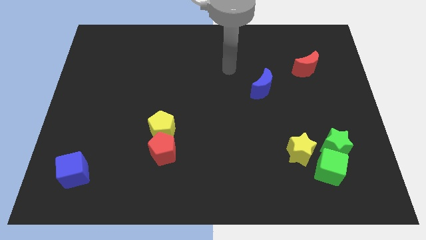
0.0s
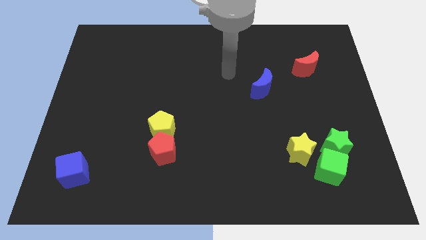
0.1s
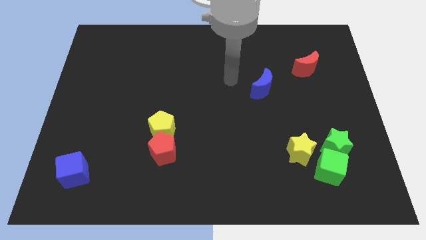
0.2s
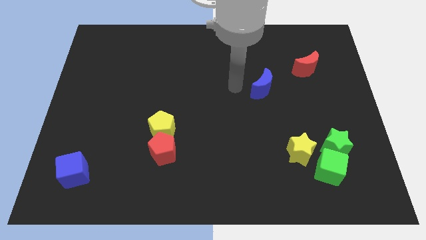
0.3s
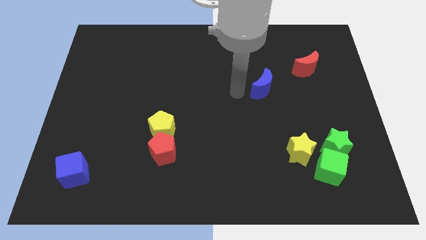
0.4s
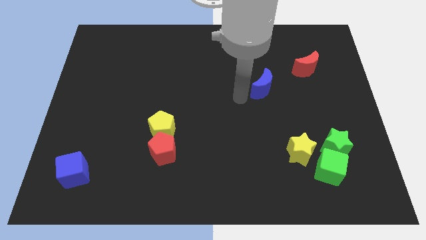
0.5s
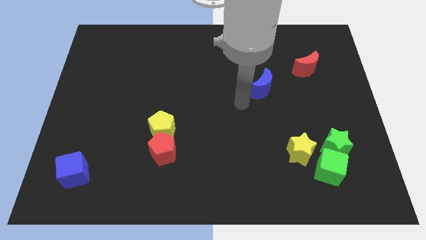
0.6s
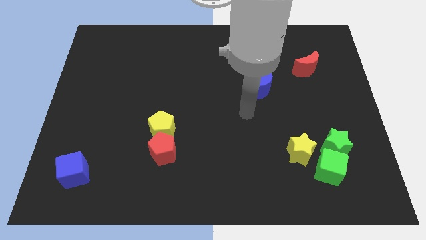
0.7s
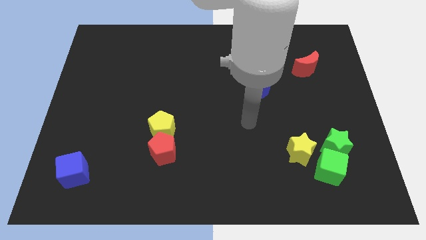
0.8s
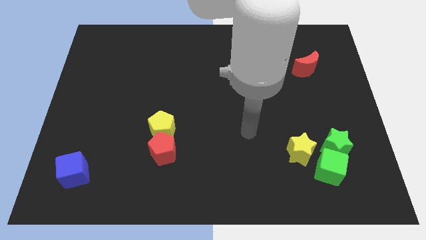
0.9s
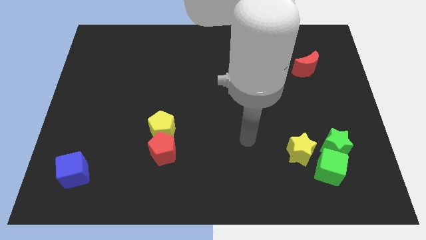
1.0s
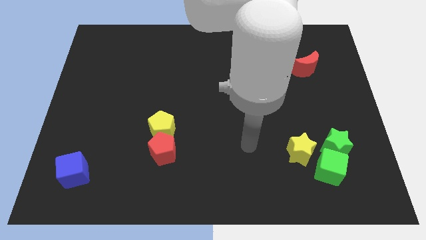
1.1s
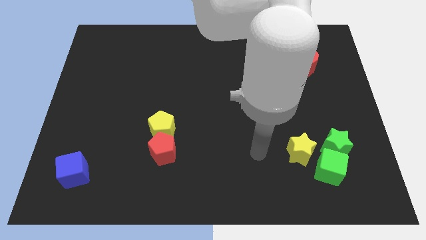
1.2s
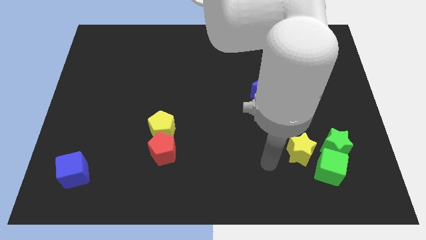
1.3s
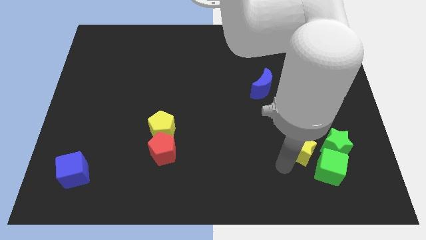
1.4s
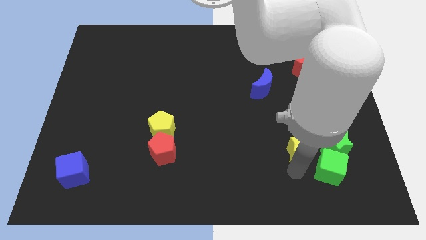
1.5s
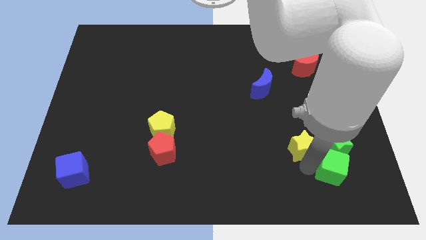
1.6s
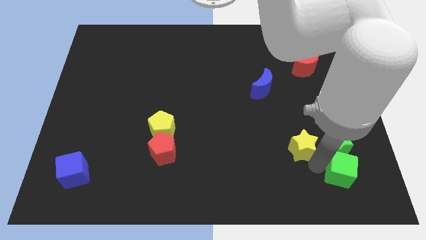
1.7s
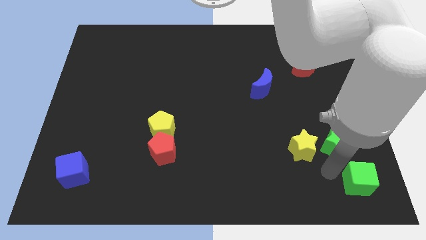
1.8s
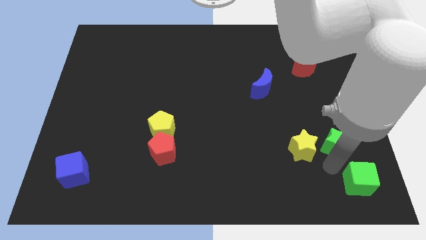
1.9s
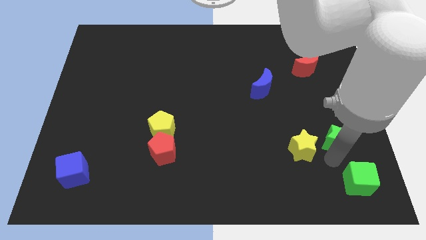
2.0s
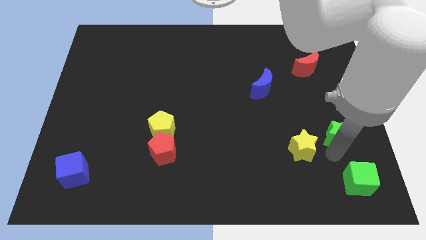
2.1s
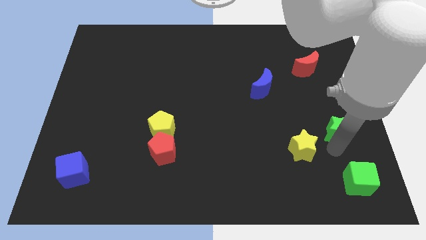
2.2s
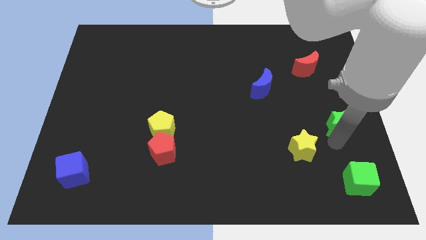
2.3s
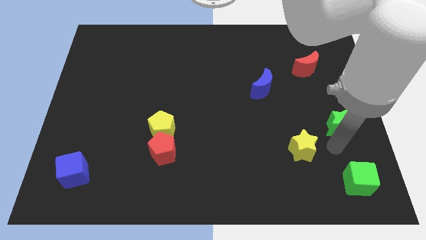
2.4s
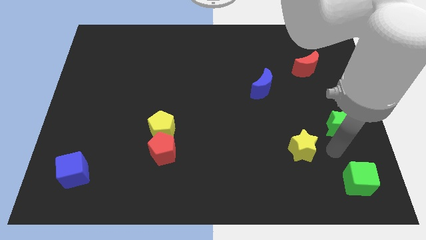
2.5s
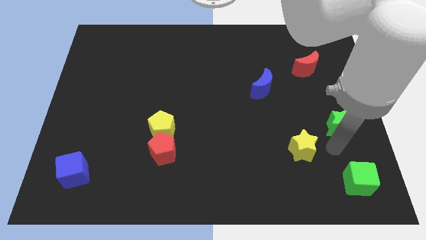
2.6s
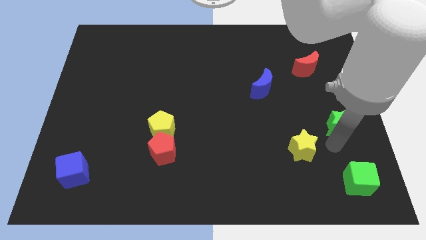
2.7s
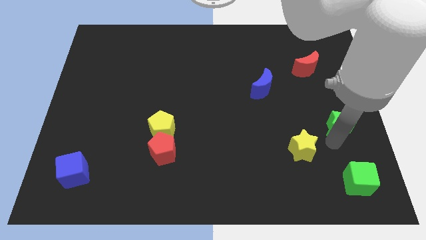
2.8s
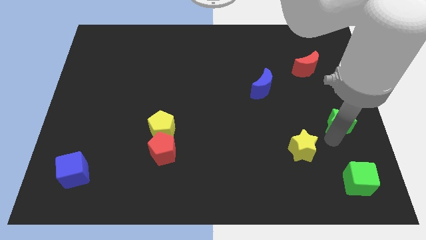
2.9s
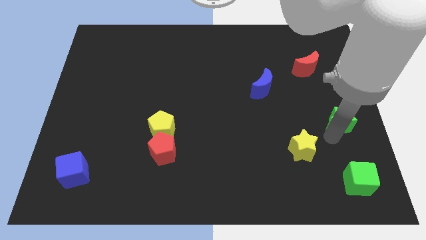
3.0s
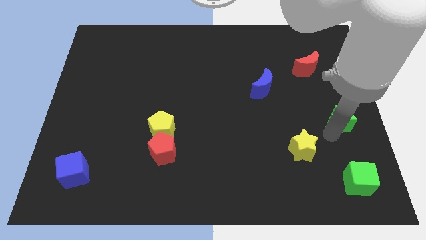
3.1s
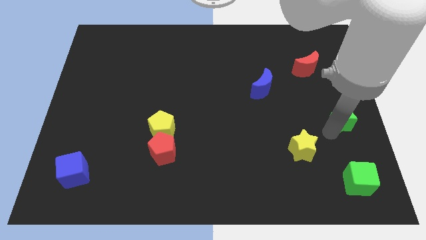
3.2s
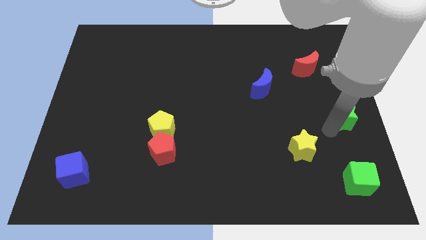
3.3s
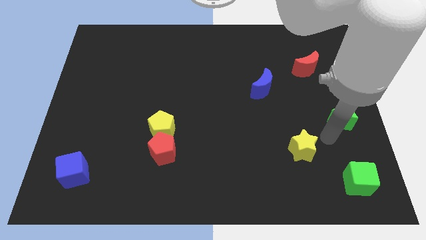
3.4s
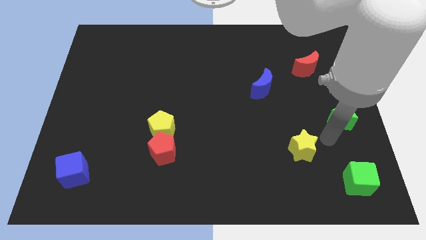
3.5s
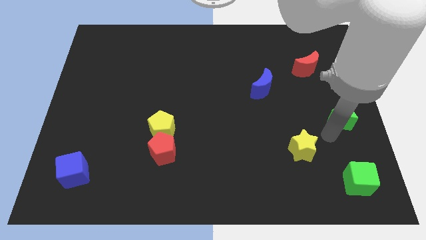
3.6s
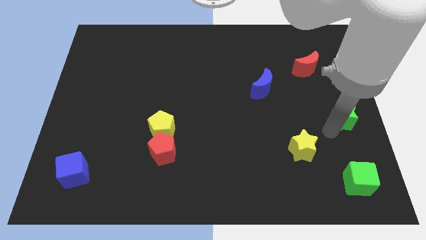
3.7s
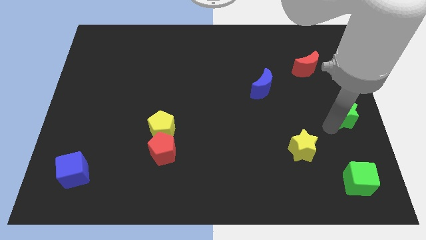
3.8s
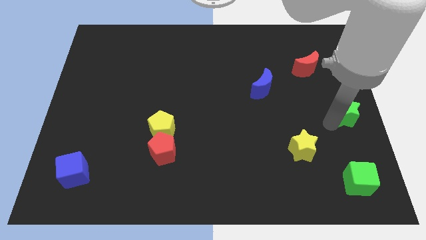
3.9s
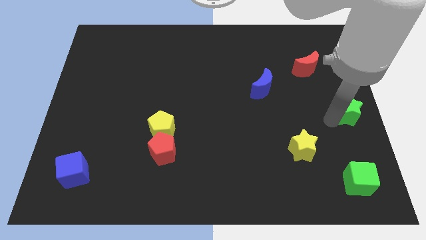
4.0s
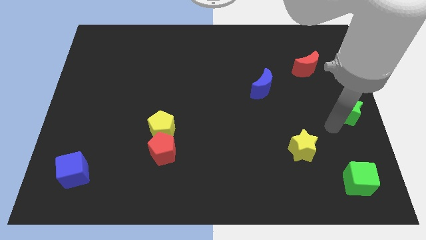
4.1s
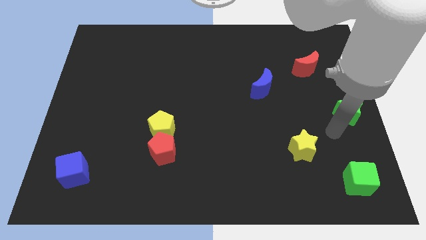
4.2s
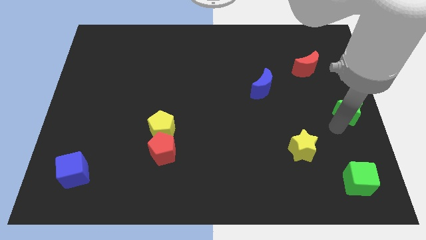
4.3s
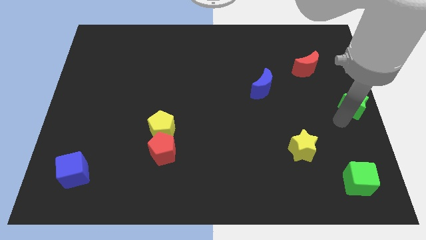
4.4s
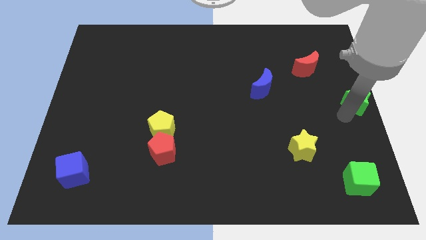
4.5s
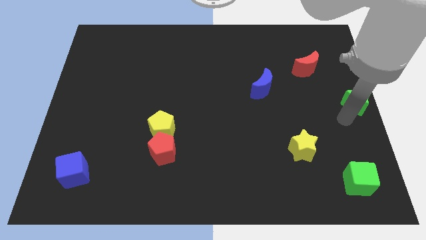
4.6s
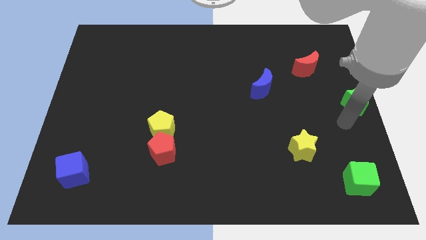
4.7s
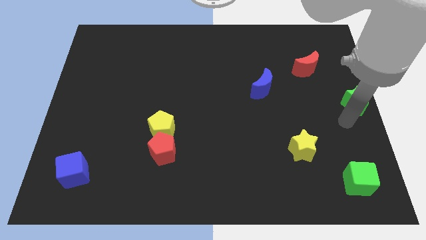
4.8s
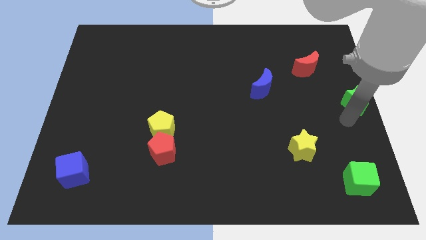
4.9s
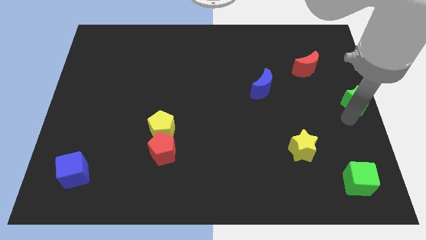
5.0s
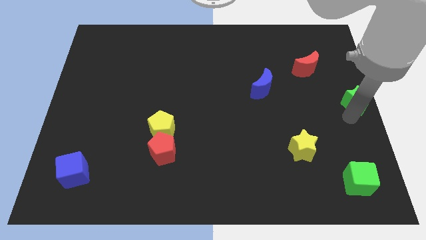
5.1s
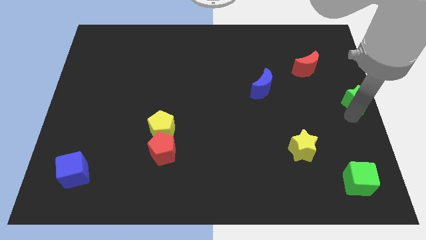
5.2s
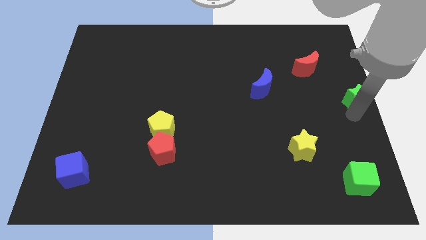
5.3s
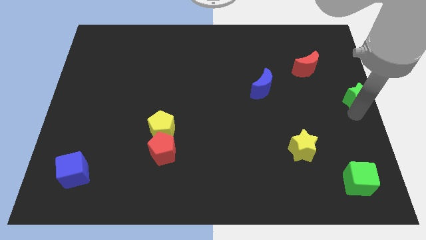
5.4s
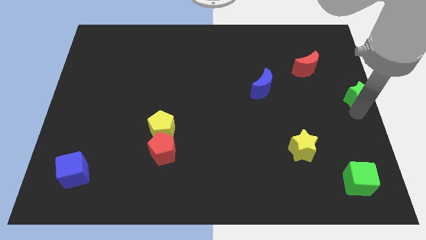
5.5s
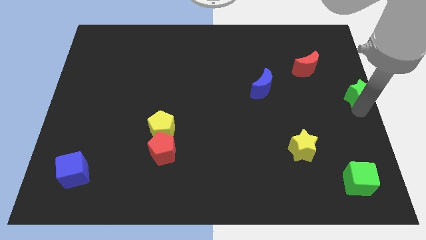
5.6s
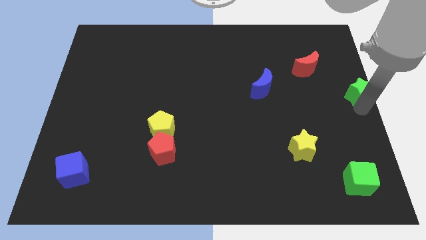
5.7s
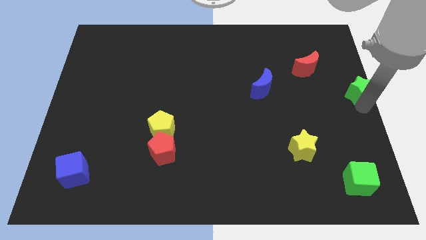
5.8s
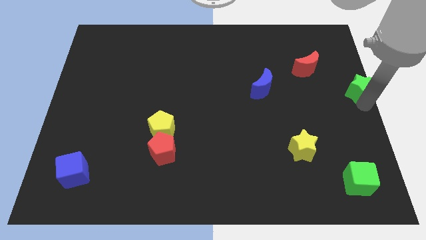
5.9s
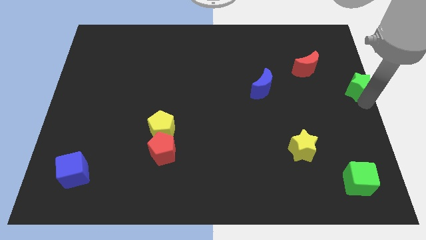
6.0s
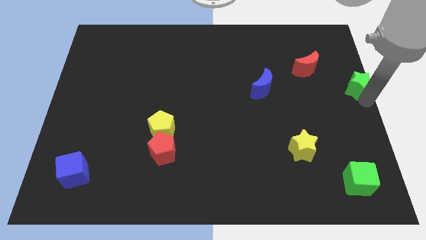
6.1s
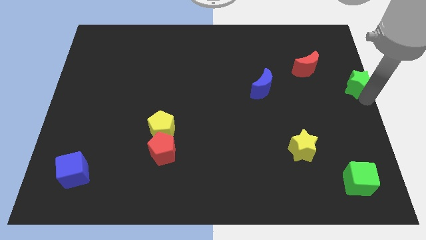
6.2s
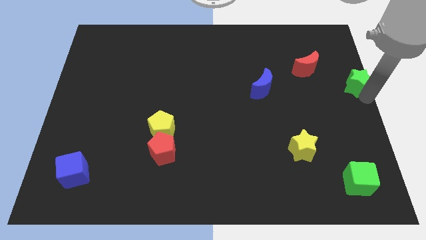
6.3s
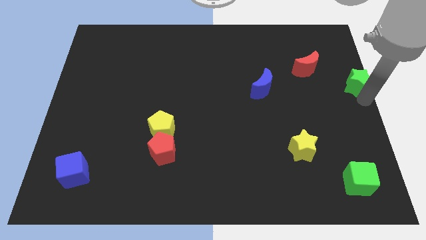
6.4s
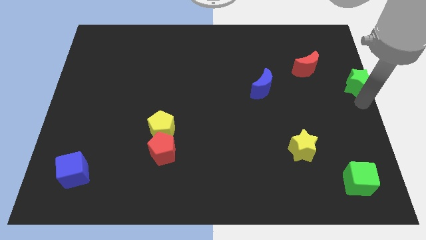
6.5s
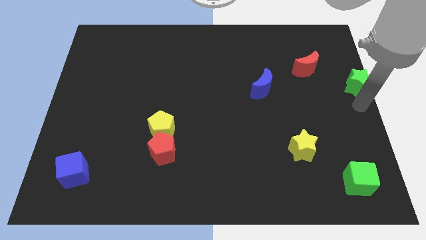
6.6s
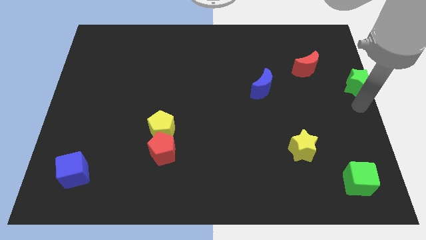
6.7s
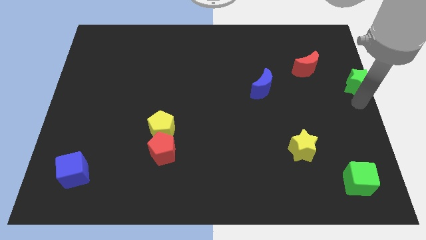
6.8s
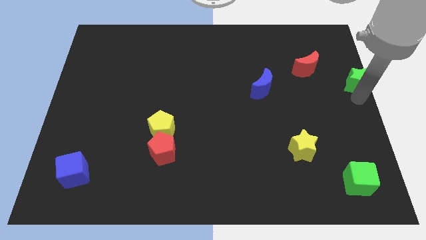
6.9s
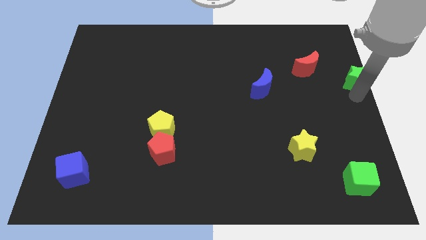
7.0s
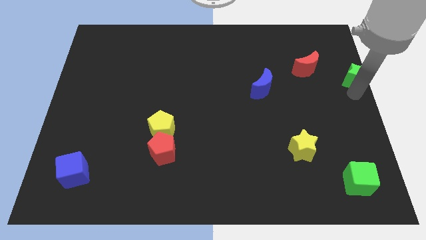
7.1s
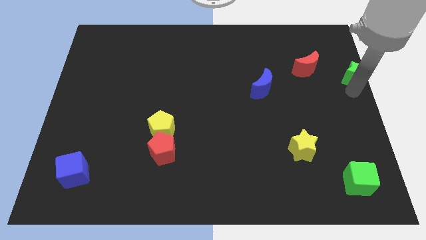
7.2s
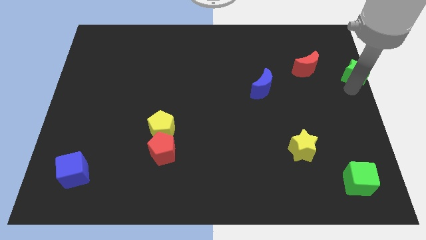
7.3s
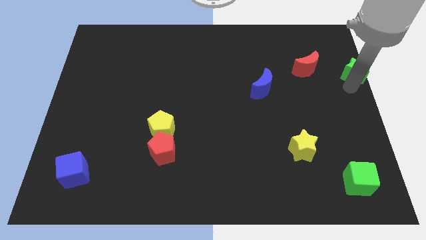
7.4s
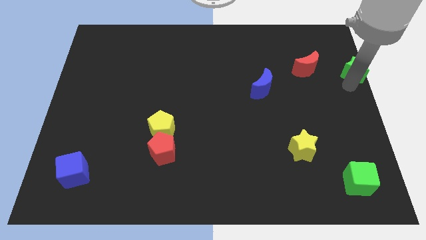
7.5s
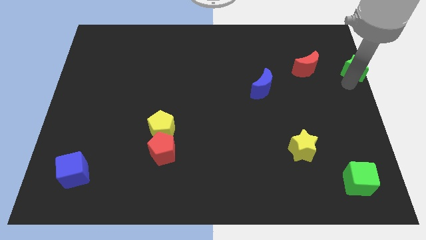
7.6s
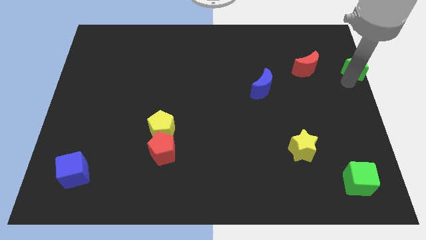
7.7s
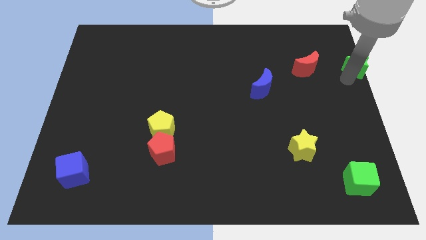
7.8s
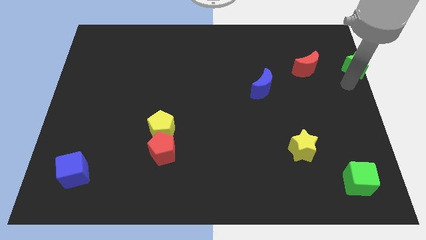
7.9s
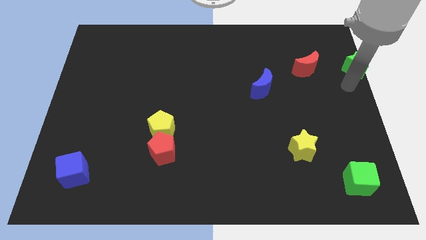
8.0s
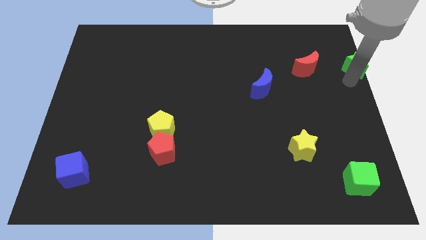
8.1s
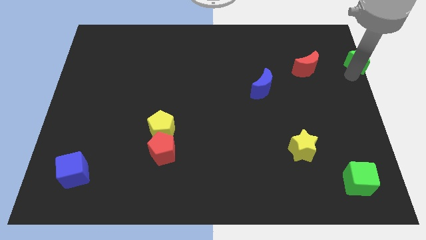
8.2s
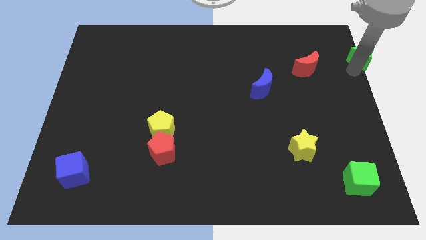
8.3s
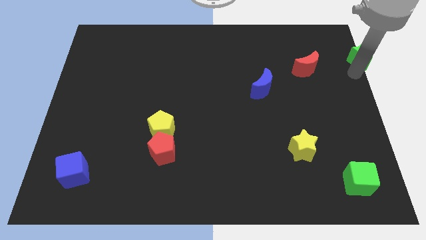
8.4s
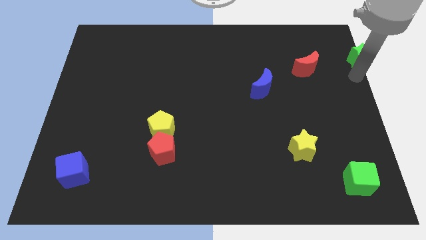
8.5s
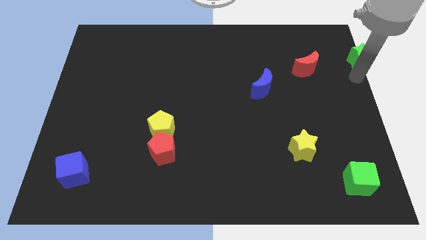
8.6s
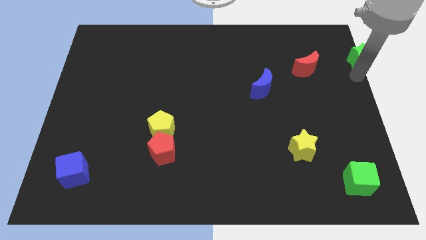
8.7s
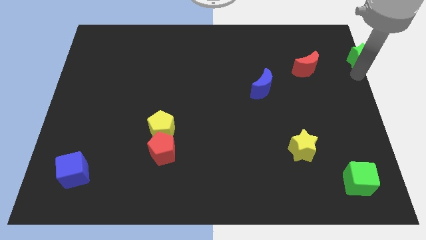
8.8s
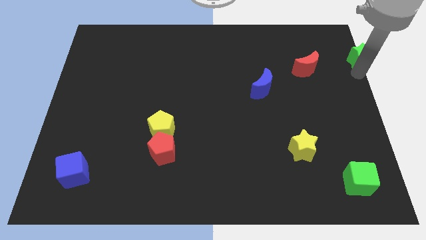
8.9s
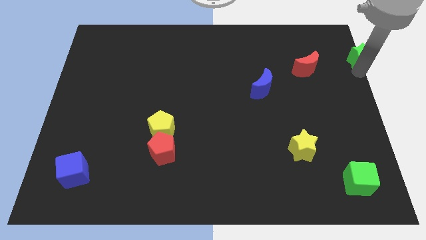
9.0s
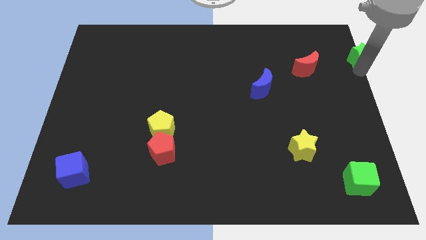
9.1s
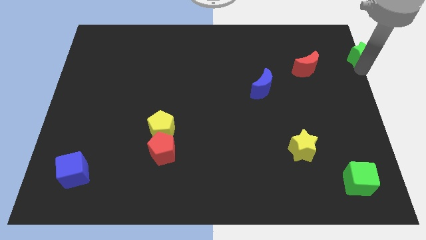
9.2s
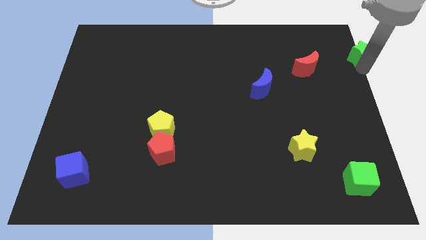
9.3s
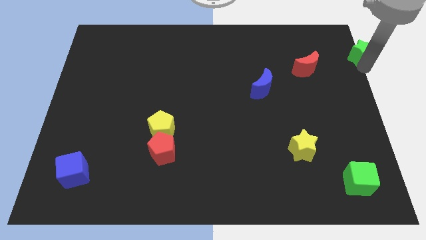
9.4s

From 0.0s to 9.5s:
slide the green star to the upper right corner
